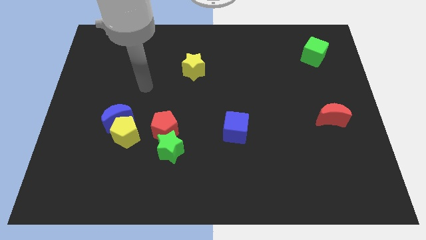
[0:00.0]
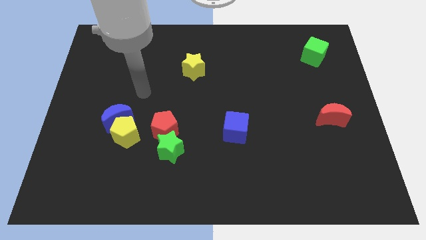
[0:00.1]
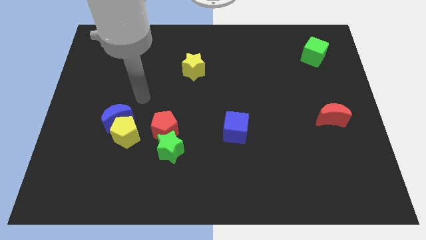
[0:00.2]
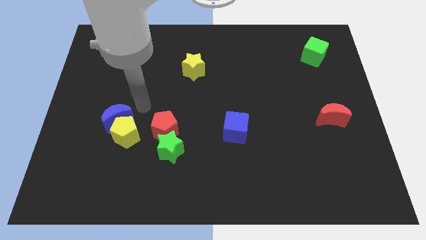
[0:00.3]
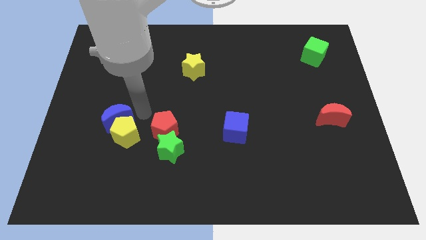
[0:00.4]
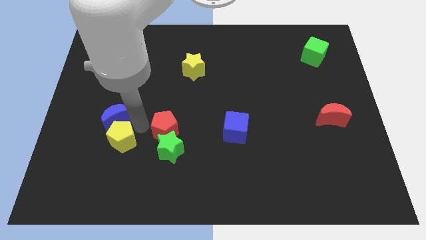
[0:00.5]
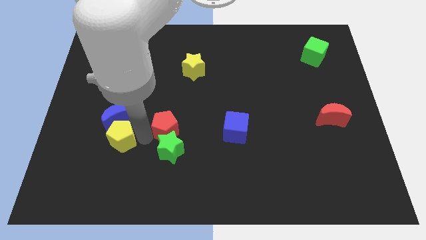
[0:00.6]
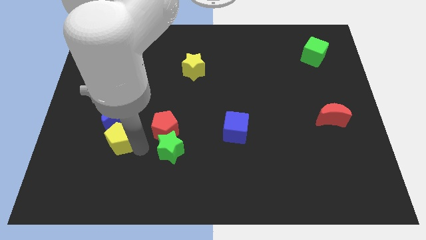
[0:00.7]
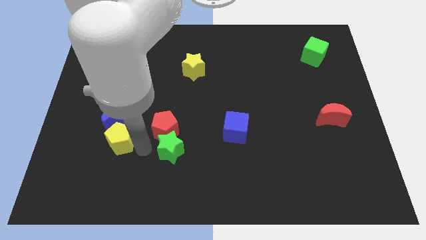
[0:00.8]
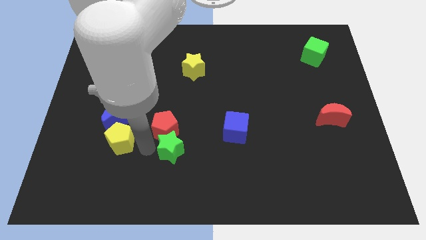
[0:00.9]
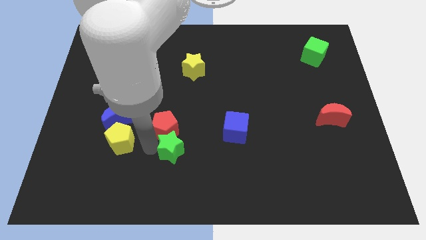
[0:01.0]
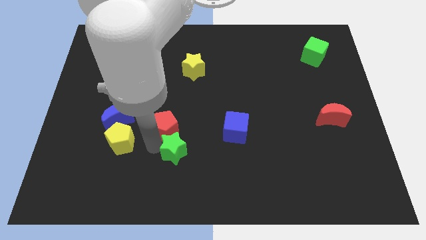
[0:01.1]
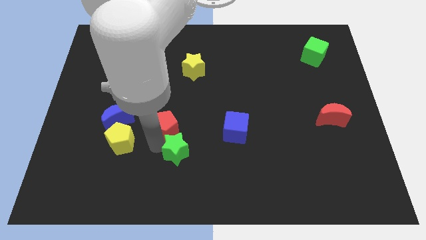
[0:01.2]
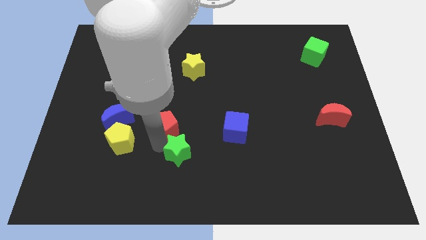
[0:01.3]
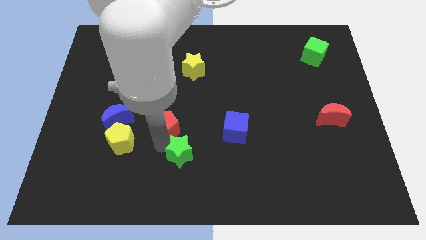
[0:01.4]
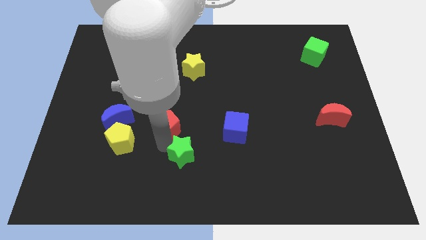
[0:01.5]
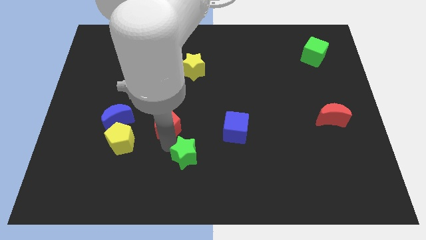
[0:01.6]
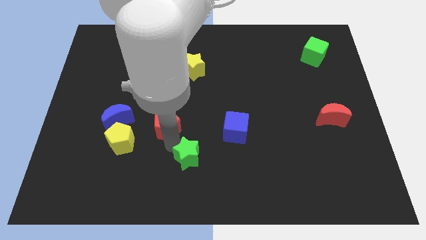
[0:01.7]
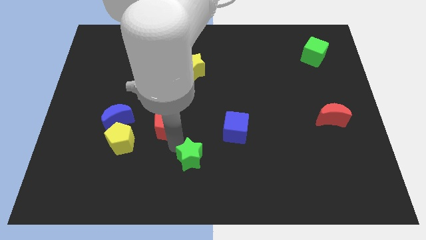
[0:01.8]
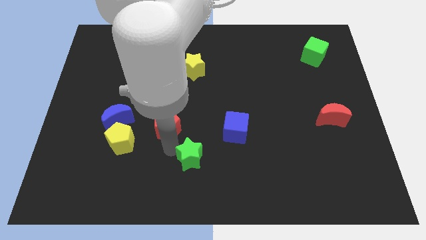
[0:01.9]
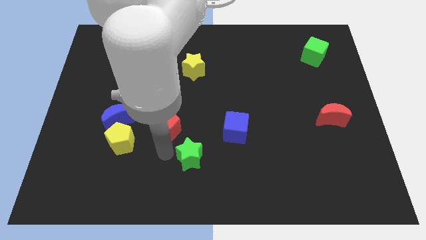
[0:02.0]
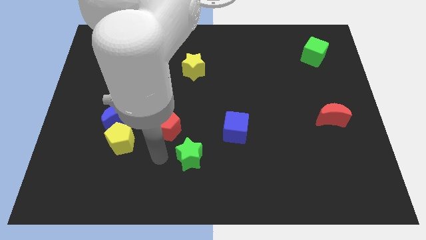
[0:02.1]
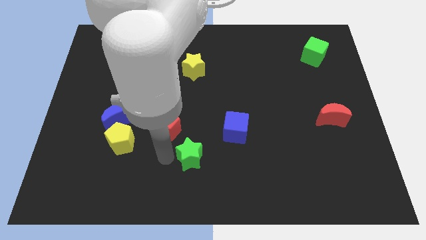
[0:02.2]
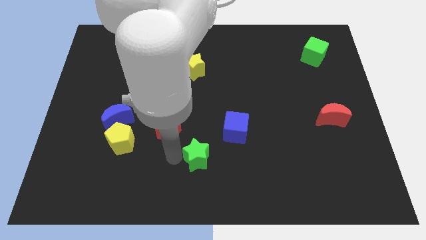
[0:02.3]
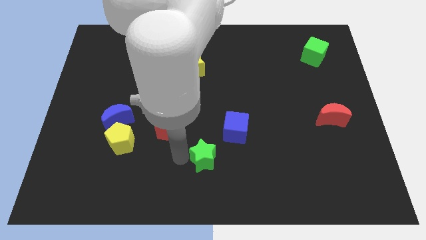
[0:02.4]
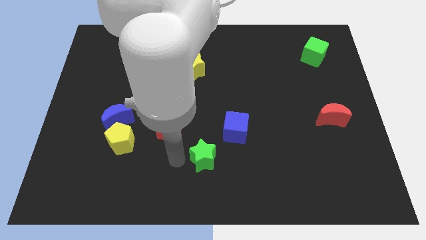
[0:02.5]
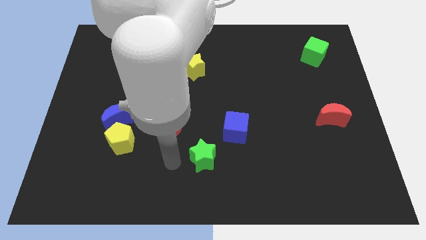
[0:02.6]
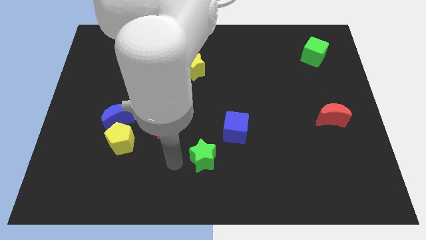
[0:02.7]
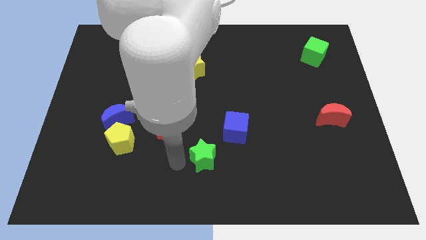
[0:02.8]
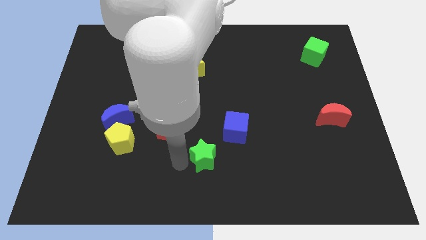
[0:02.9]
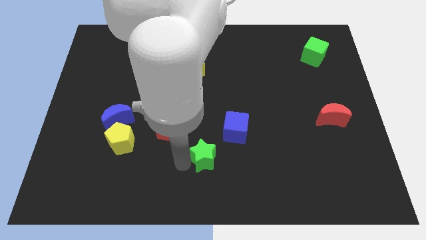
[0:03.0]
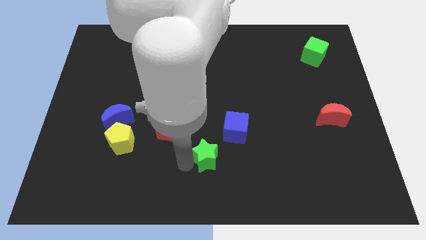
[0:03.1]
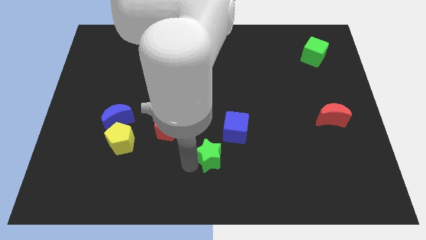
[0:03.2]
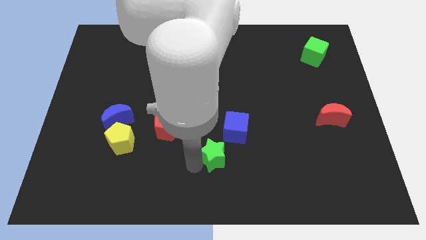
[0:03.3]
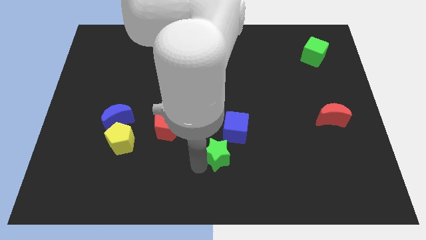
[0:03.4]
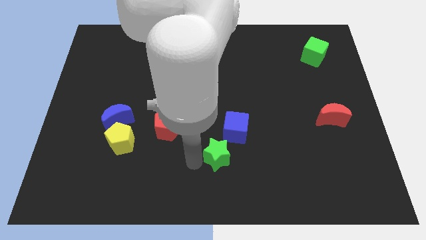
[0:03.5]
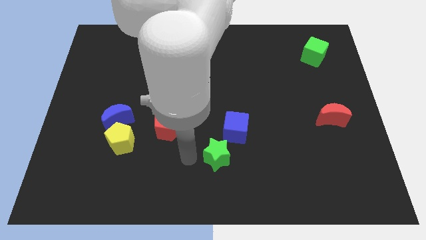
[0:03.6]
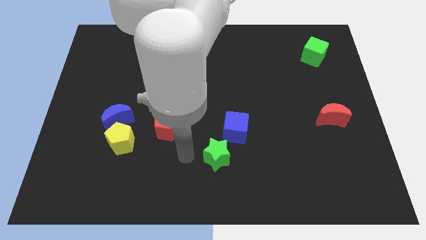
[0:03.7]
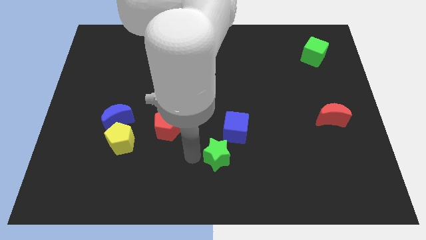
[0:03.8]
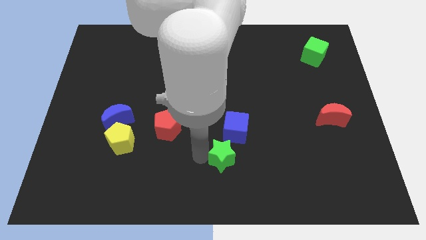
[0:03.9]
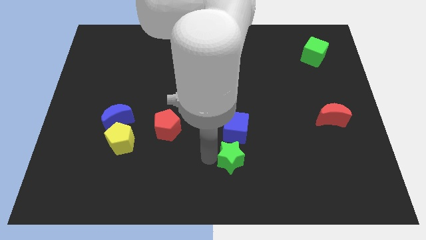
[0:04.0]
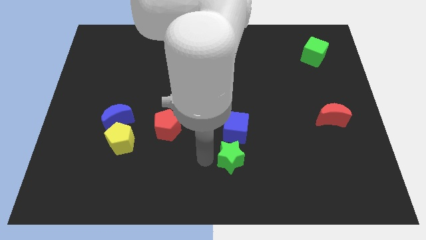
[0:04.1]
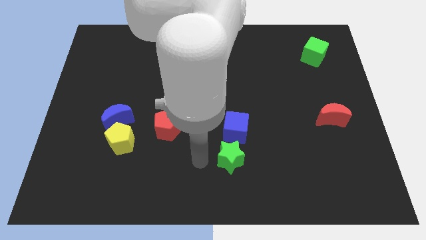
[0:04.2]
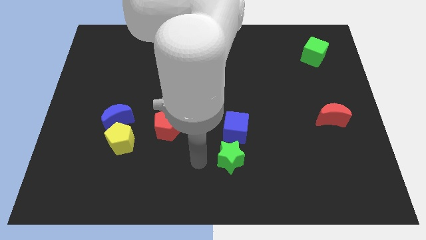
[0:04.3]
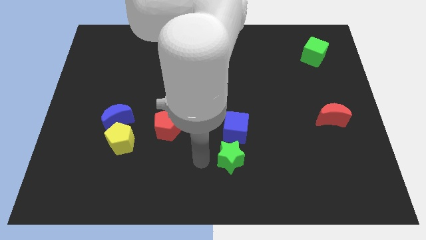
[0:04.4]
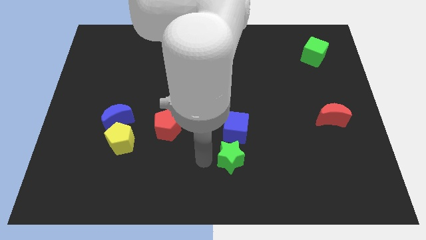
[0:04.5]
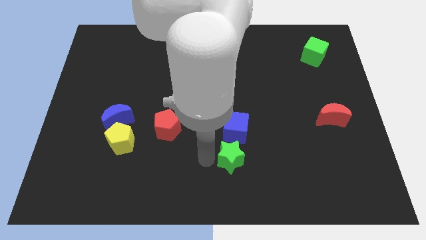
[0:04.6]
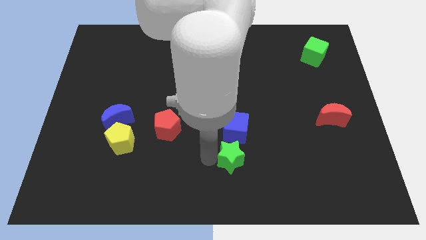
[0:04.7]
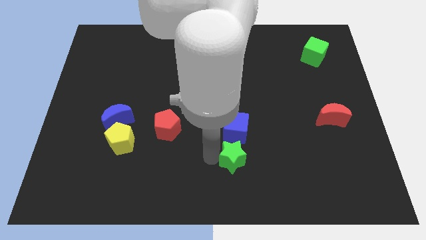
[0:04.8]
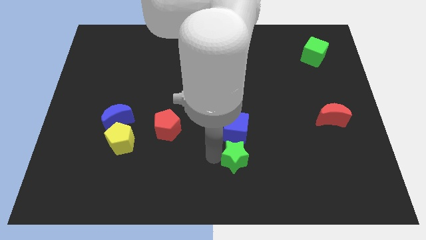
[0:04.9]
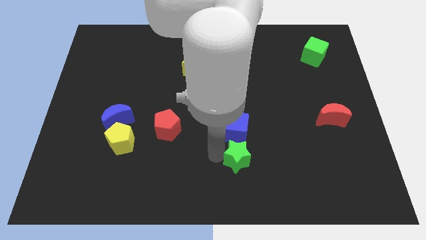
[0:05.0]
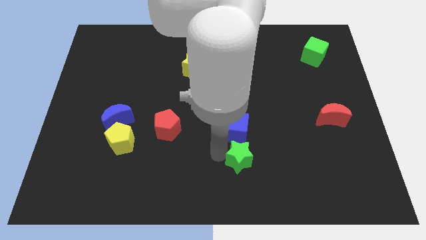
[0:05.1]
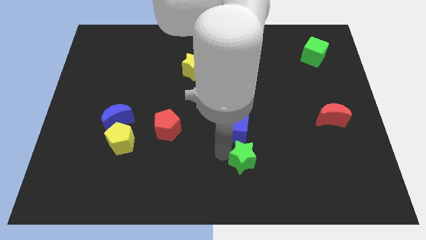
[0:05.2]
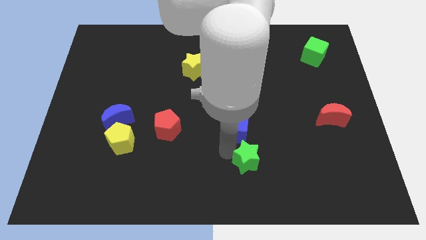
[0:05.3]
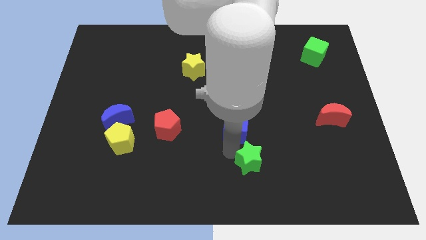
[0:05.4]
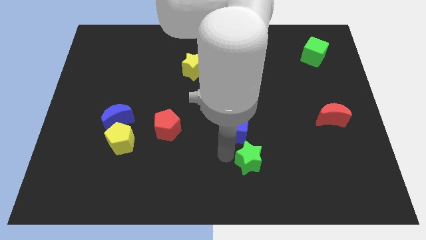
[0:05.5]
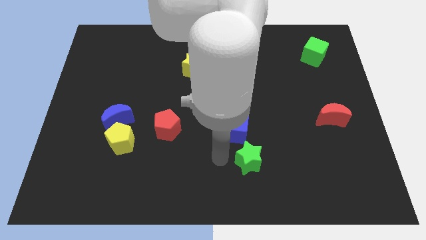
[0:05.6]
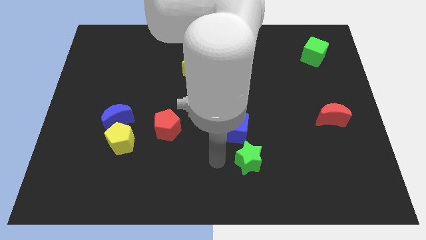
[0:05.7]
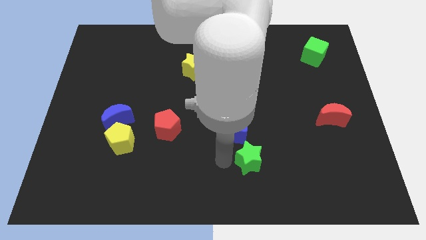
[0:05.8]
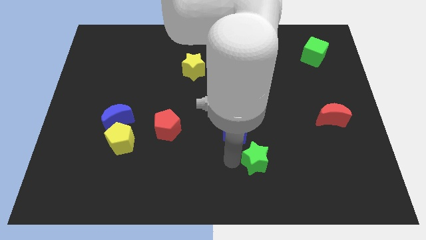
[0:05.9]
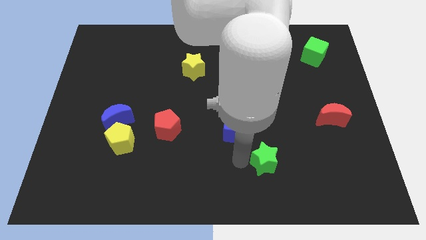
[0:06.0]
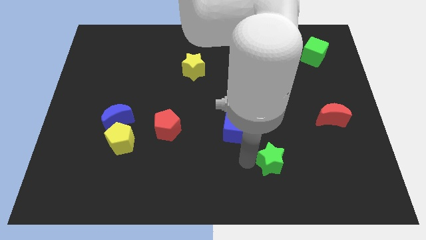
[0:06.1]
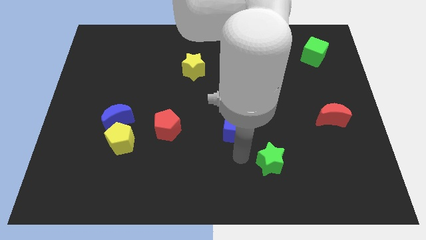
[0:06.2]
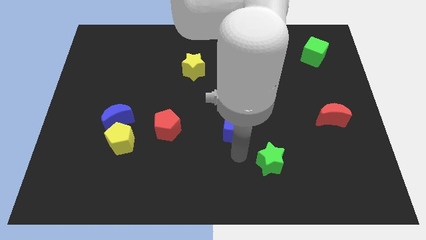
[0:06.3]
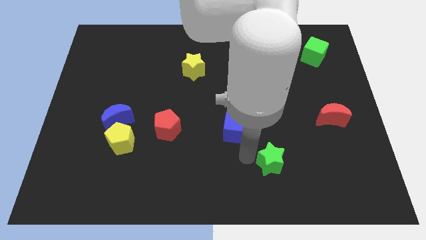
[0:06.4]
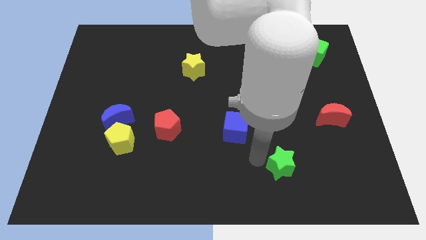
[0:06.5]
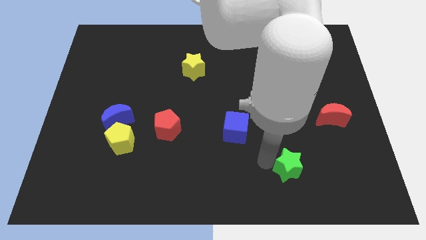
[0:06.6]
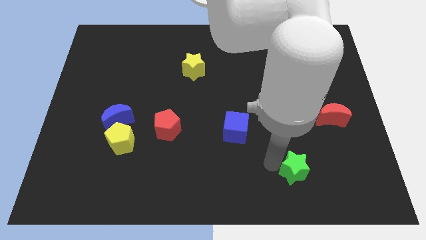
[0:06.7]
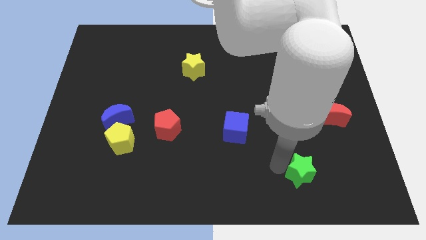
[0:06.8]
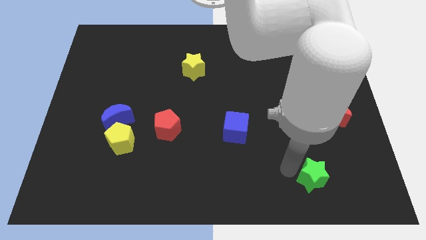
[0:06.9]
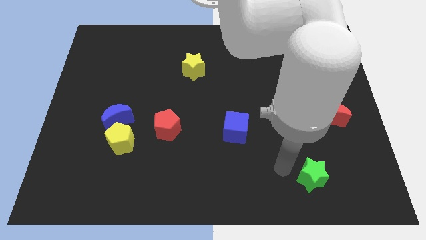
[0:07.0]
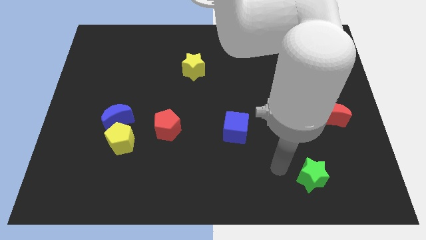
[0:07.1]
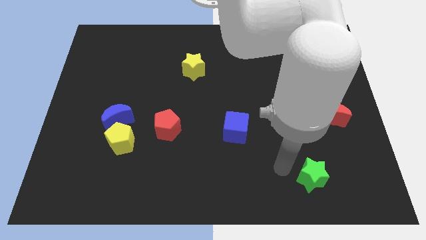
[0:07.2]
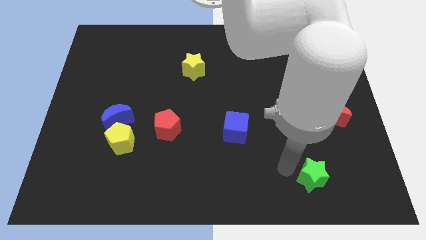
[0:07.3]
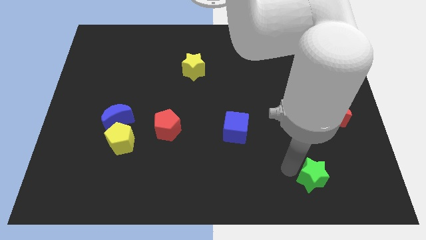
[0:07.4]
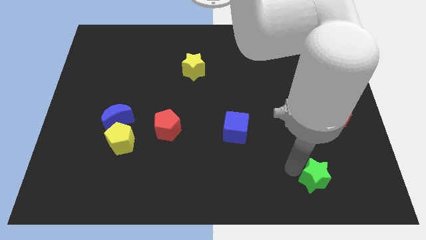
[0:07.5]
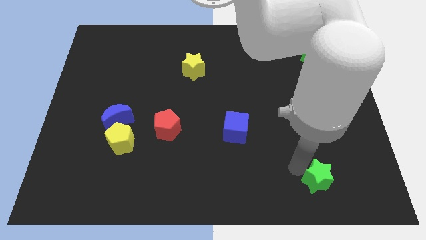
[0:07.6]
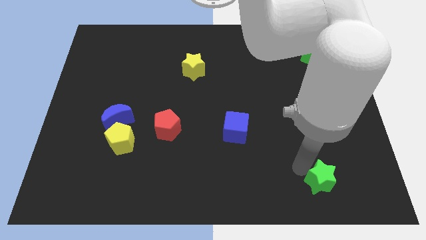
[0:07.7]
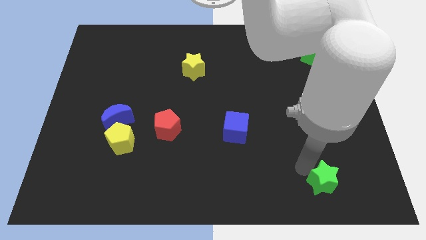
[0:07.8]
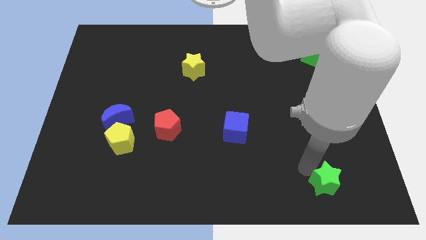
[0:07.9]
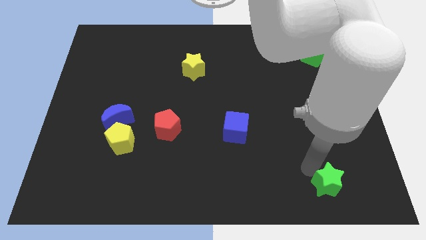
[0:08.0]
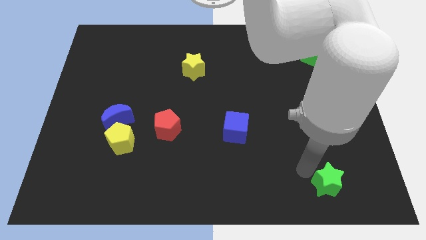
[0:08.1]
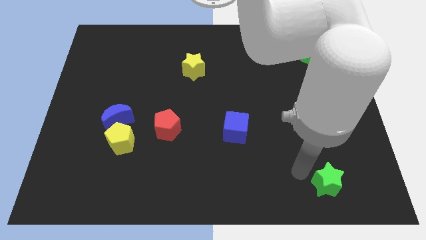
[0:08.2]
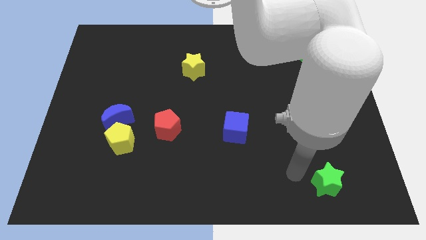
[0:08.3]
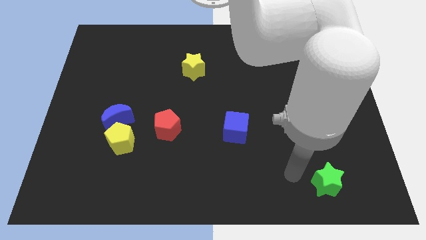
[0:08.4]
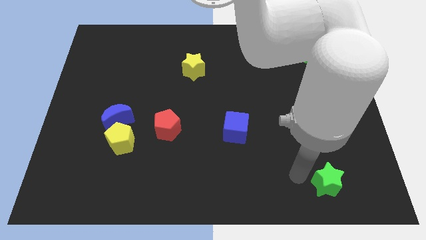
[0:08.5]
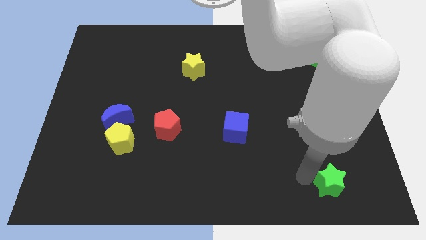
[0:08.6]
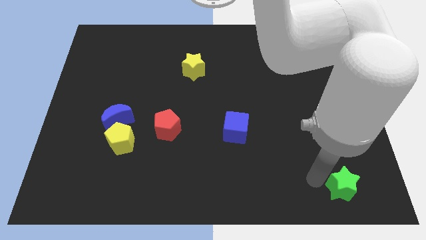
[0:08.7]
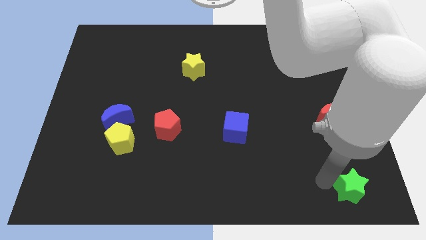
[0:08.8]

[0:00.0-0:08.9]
move the green star to the lower right corner
